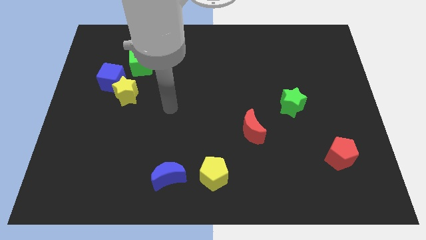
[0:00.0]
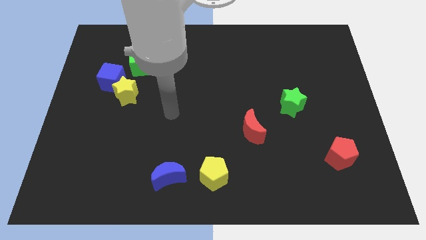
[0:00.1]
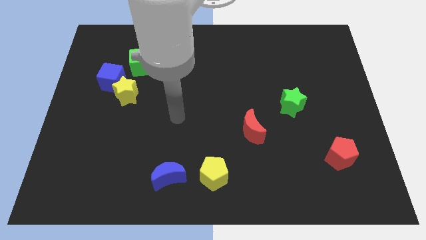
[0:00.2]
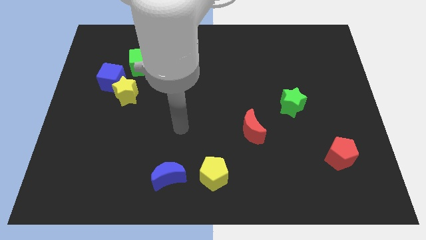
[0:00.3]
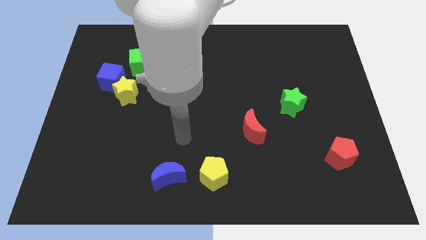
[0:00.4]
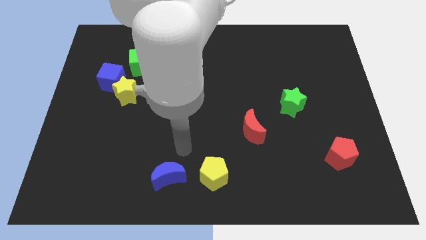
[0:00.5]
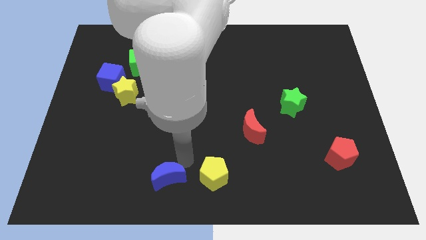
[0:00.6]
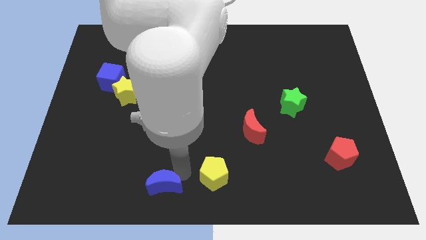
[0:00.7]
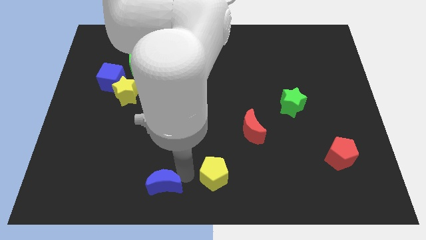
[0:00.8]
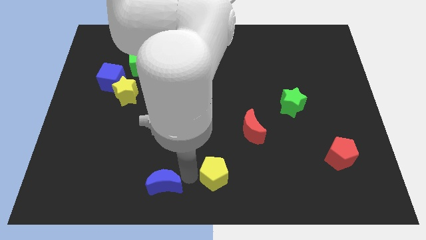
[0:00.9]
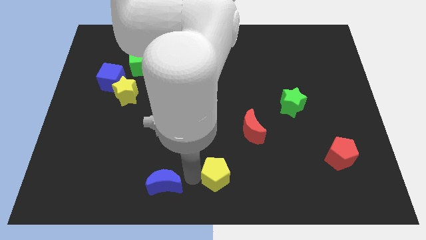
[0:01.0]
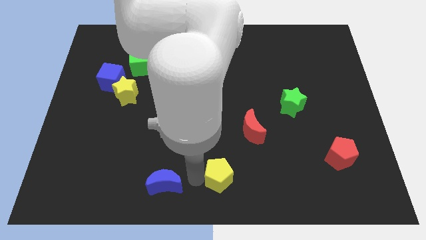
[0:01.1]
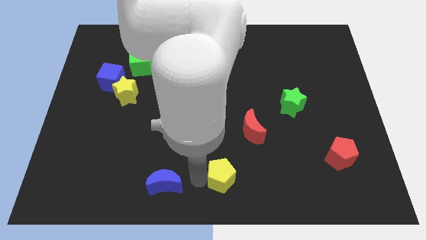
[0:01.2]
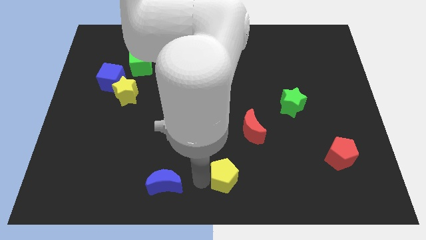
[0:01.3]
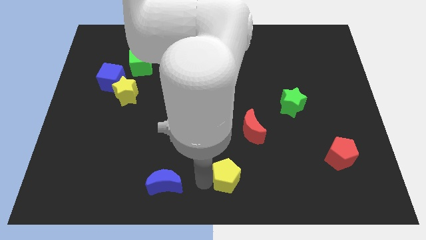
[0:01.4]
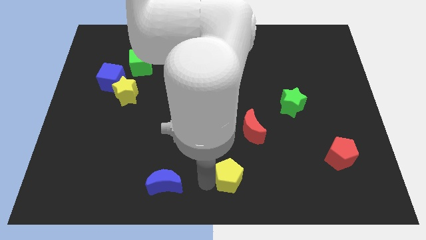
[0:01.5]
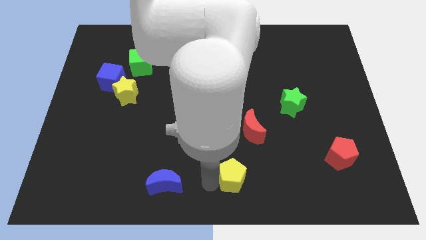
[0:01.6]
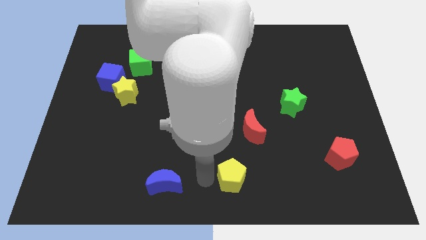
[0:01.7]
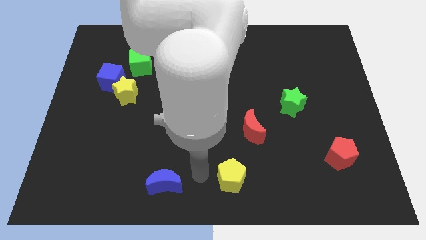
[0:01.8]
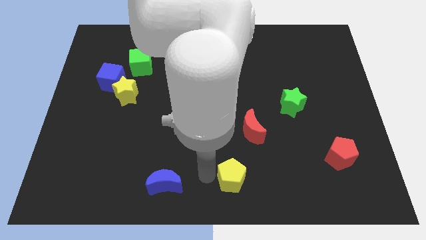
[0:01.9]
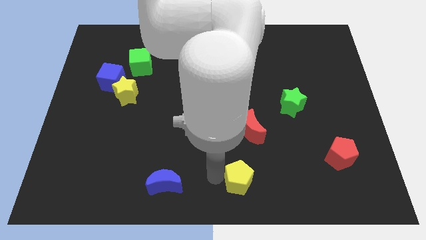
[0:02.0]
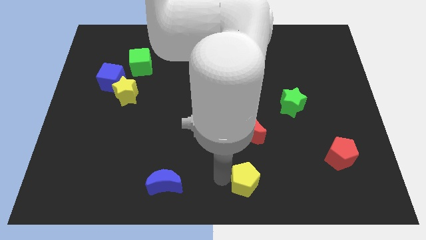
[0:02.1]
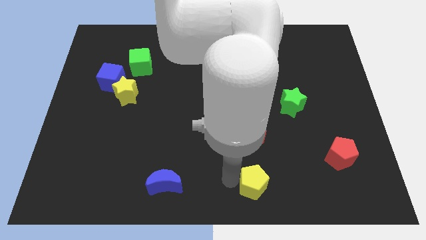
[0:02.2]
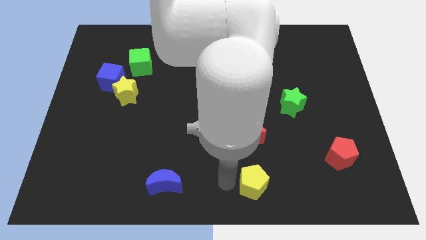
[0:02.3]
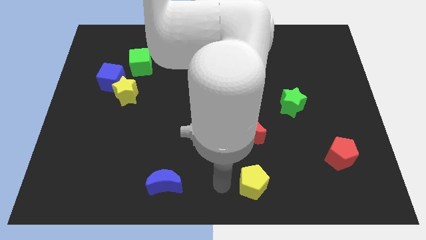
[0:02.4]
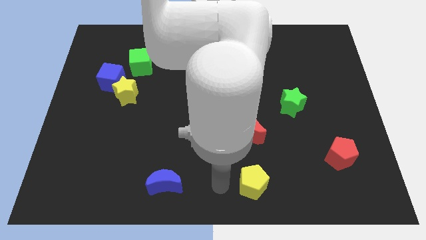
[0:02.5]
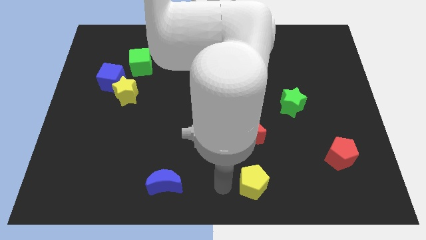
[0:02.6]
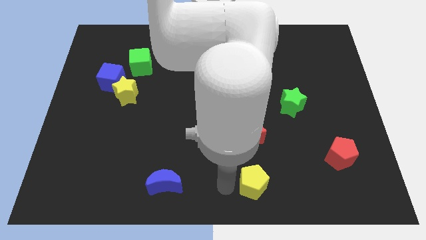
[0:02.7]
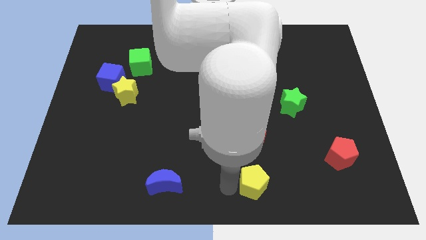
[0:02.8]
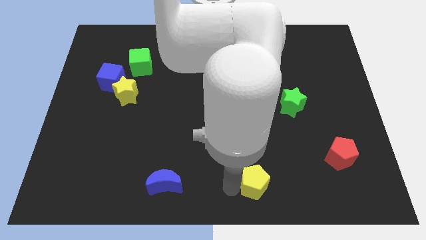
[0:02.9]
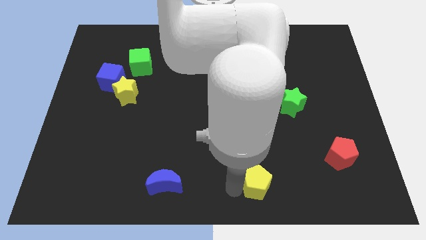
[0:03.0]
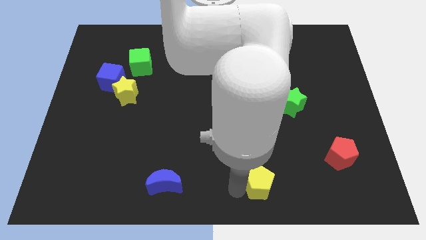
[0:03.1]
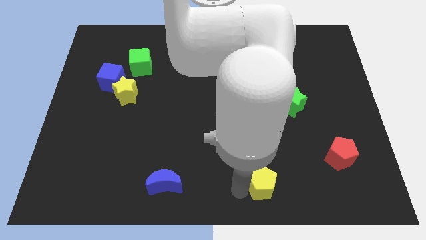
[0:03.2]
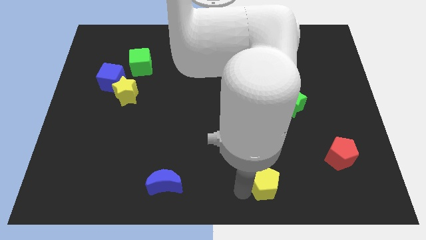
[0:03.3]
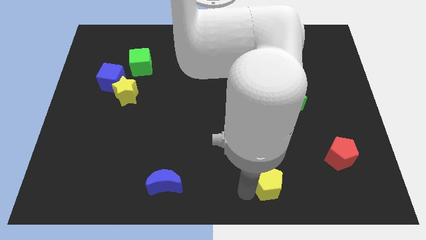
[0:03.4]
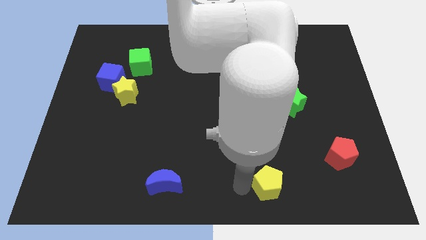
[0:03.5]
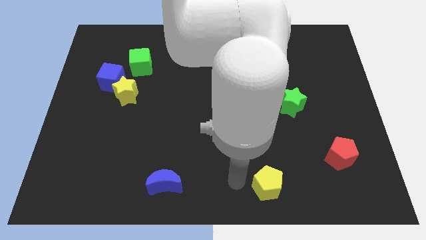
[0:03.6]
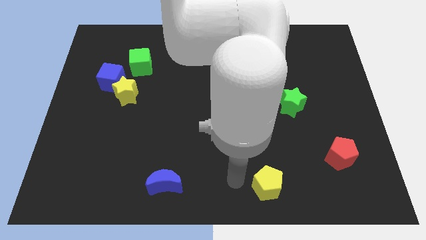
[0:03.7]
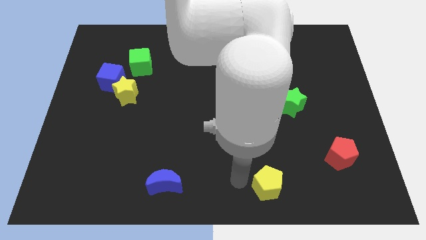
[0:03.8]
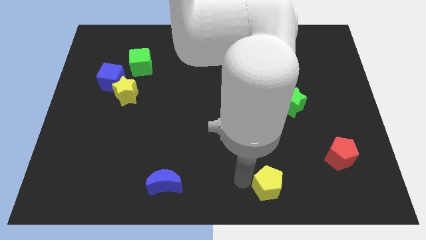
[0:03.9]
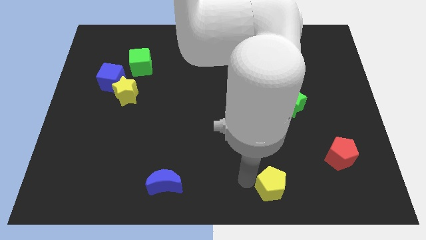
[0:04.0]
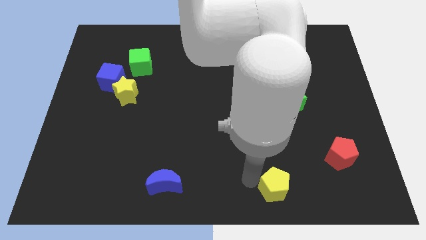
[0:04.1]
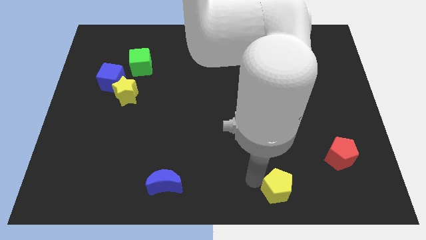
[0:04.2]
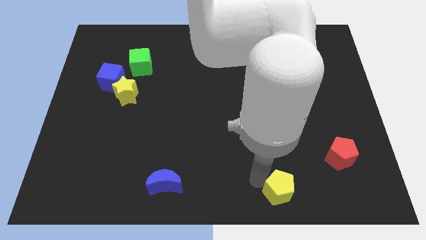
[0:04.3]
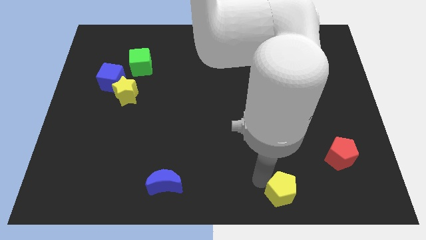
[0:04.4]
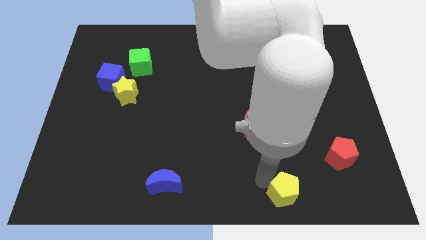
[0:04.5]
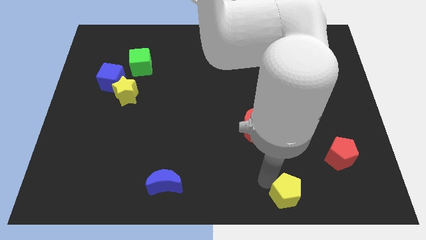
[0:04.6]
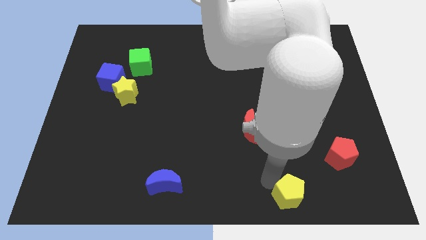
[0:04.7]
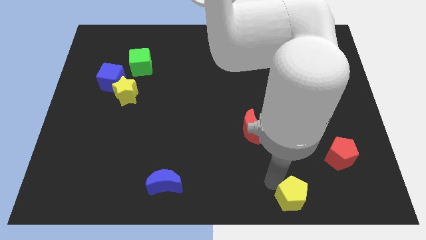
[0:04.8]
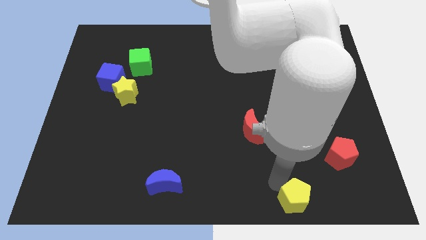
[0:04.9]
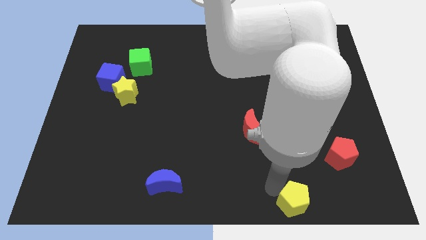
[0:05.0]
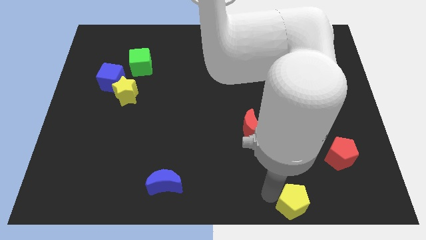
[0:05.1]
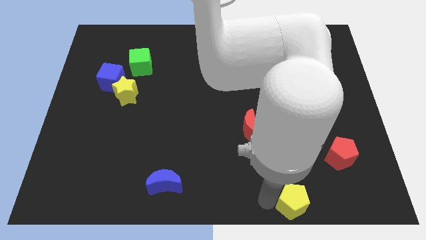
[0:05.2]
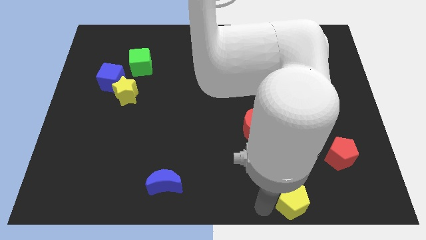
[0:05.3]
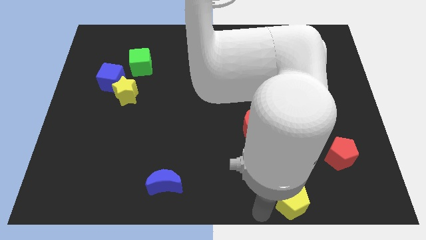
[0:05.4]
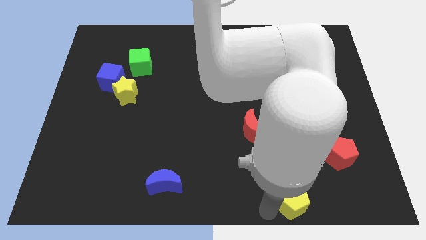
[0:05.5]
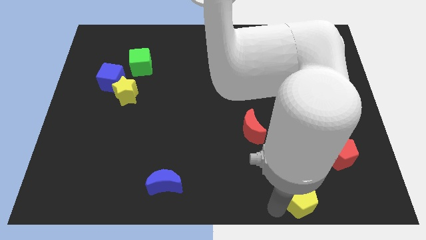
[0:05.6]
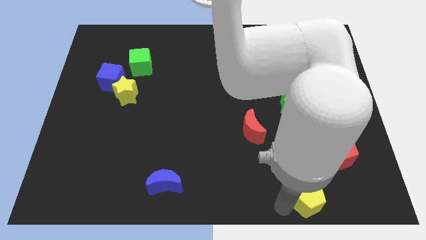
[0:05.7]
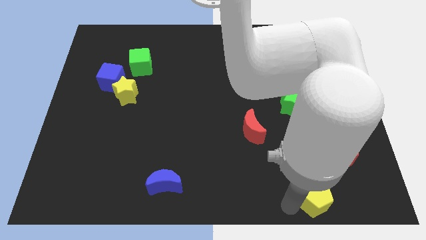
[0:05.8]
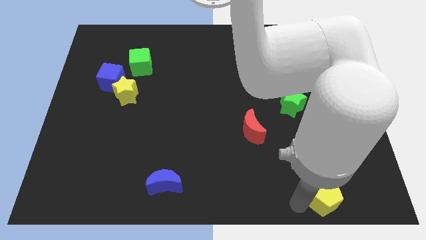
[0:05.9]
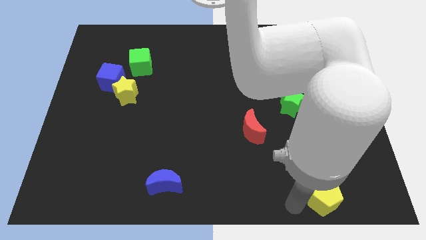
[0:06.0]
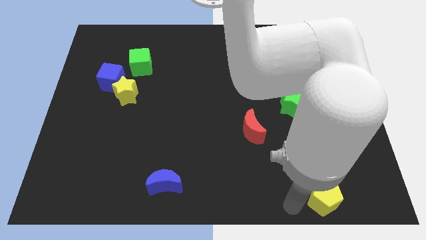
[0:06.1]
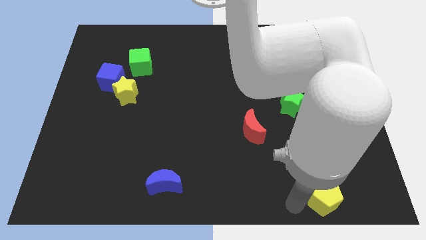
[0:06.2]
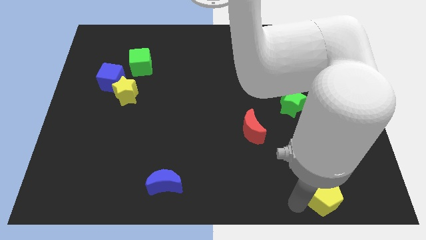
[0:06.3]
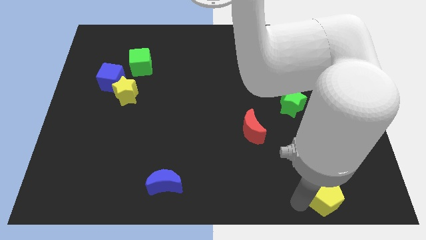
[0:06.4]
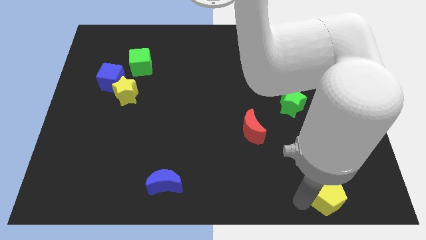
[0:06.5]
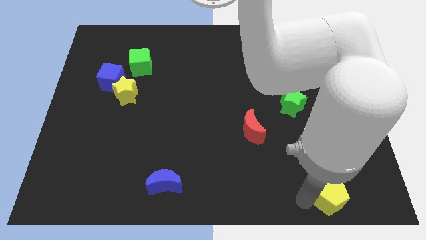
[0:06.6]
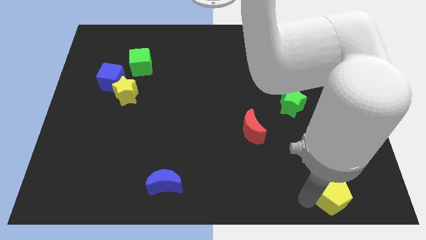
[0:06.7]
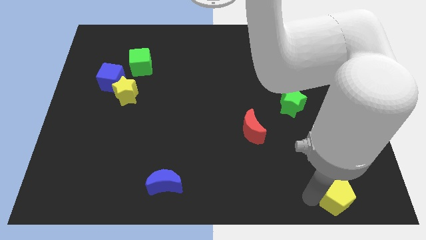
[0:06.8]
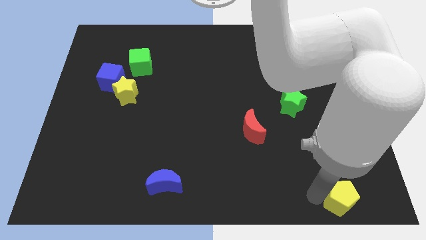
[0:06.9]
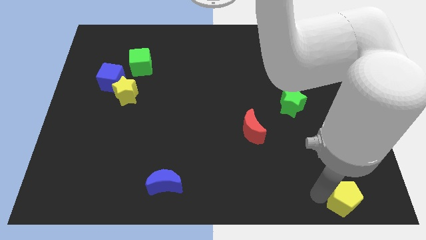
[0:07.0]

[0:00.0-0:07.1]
move the yellow pentagon to the bottom right
